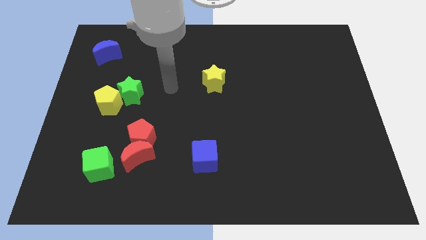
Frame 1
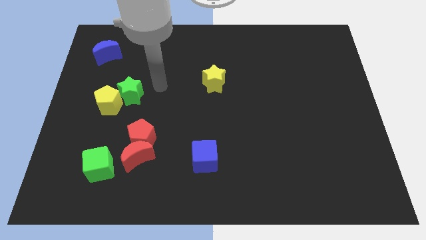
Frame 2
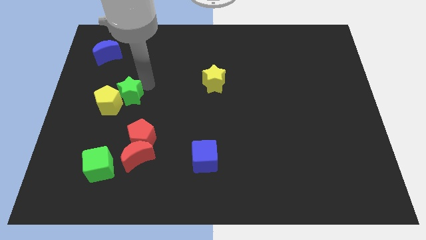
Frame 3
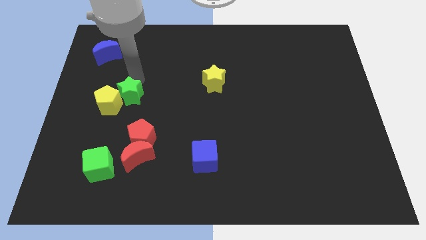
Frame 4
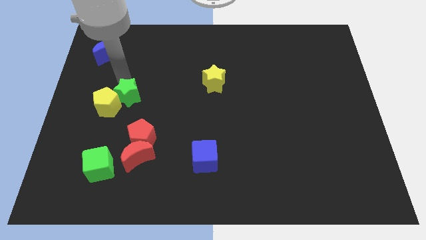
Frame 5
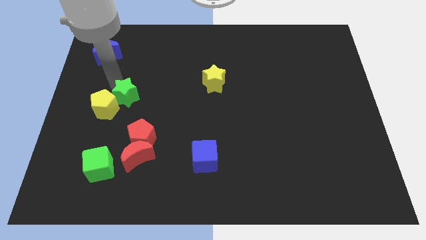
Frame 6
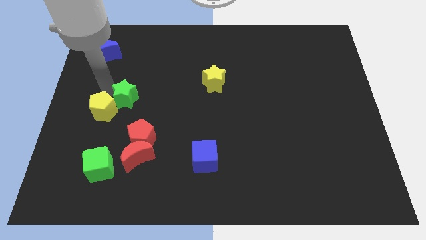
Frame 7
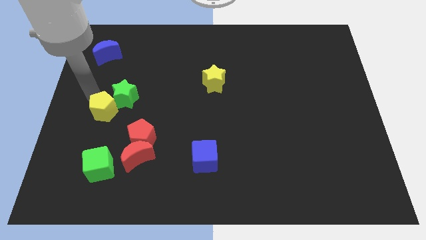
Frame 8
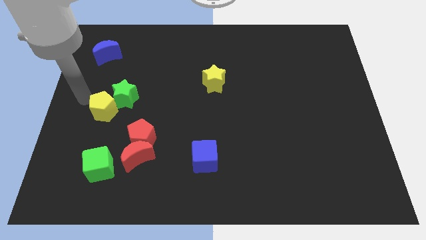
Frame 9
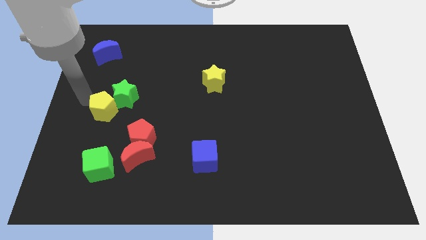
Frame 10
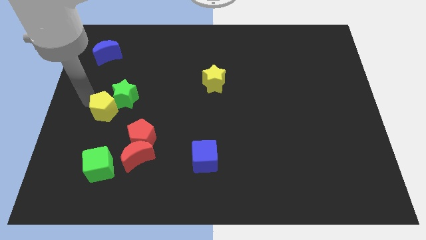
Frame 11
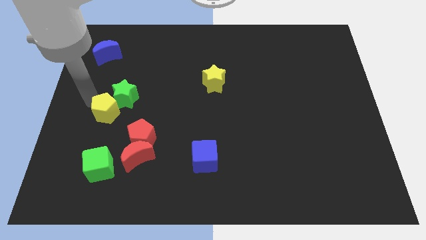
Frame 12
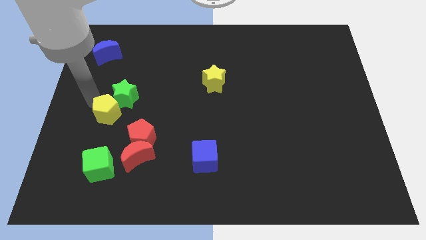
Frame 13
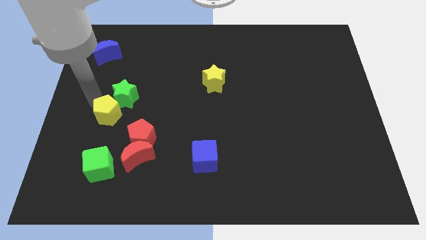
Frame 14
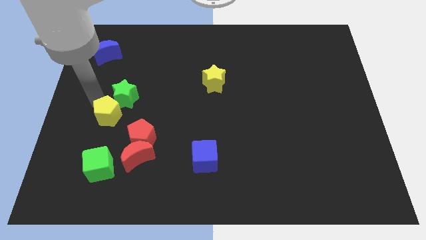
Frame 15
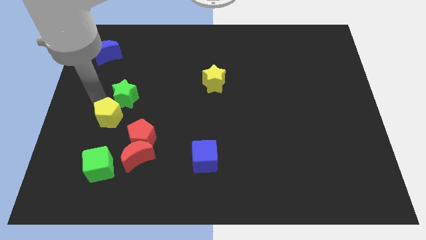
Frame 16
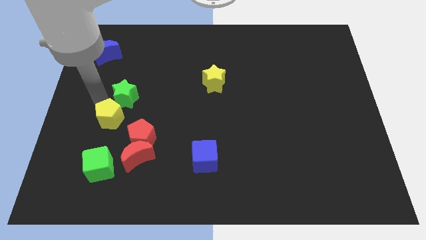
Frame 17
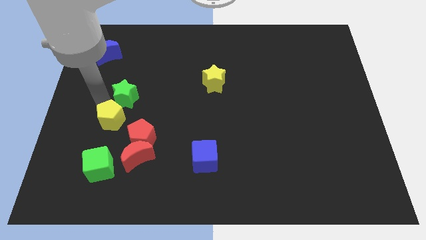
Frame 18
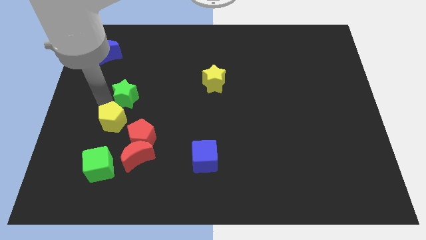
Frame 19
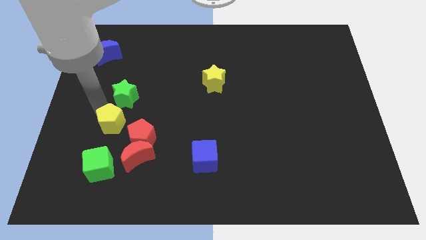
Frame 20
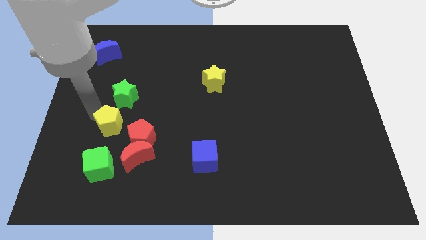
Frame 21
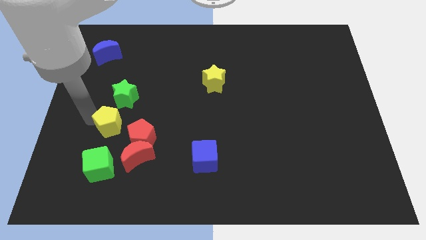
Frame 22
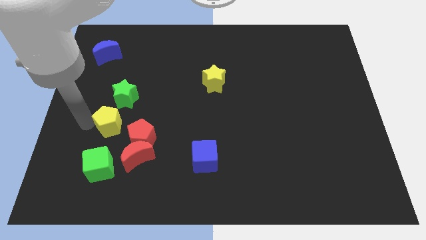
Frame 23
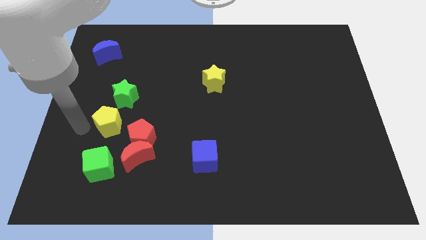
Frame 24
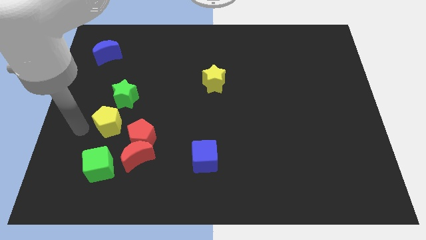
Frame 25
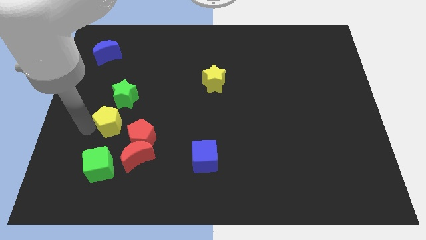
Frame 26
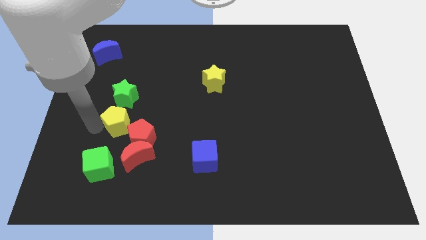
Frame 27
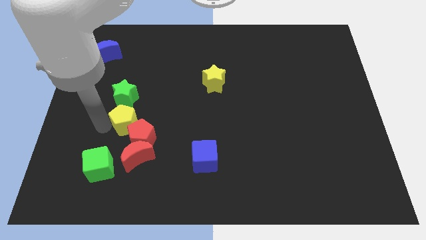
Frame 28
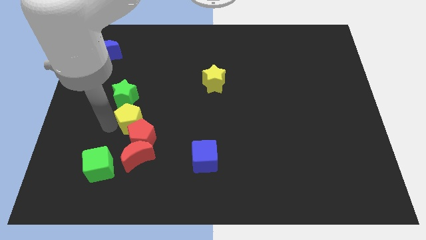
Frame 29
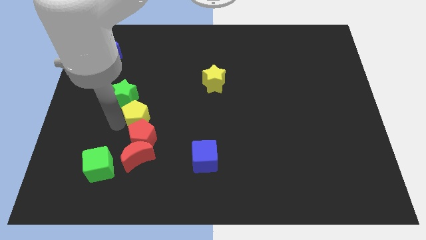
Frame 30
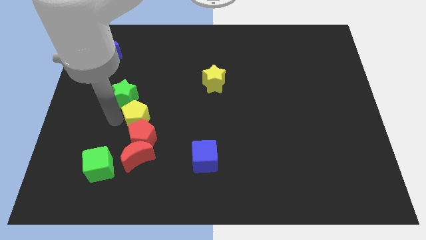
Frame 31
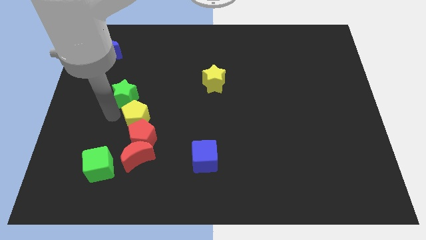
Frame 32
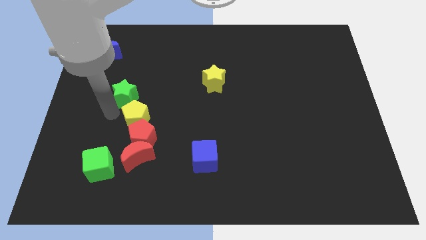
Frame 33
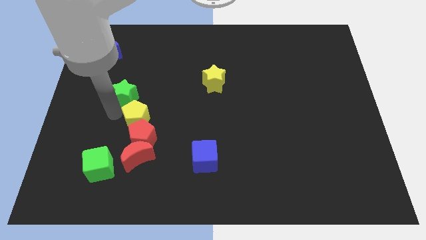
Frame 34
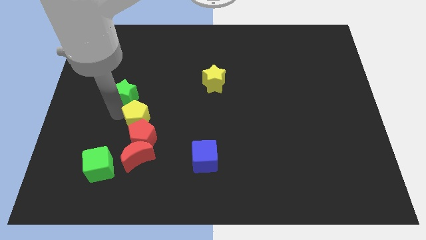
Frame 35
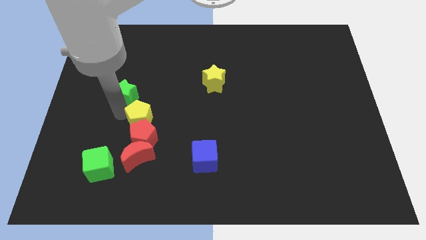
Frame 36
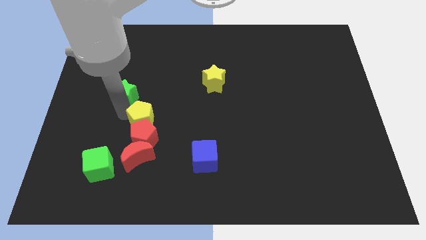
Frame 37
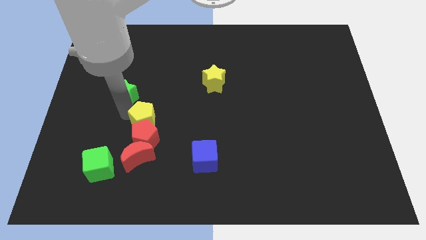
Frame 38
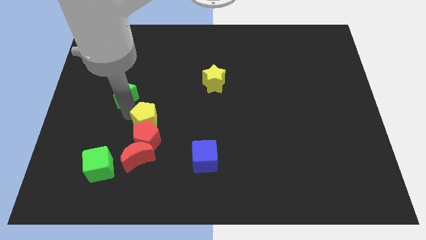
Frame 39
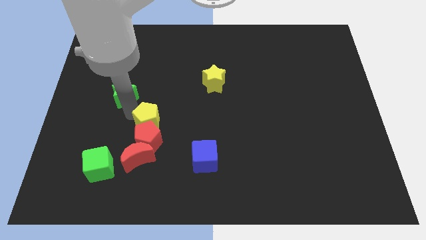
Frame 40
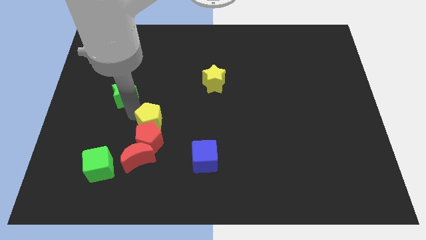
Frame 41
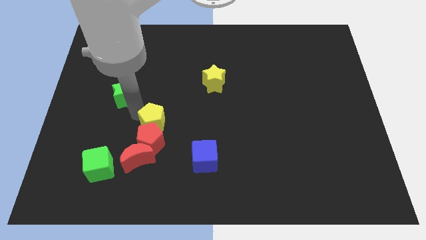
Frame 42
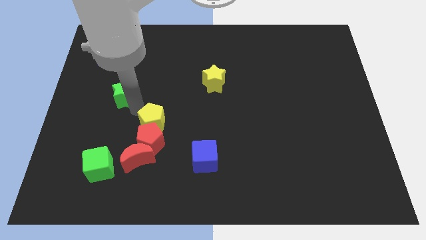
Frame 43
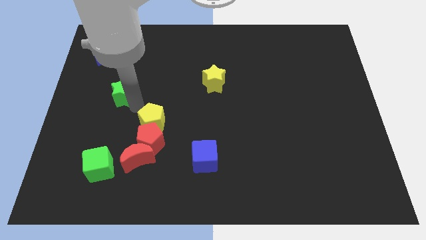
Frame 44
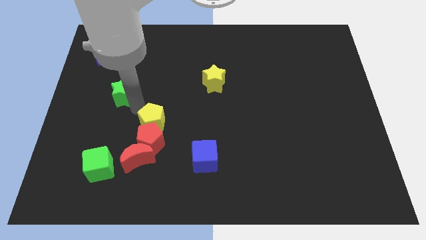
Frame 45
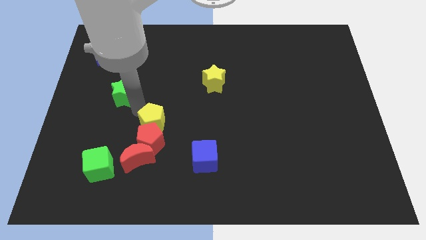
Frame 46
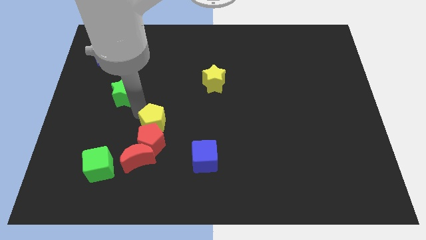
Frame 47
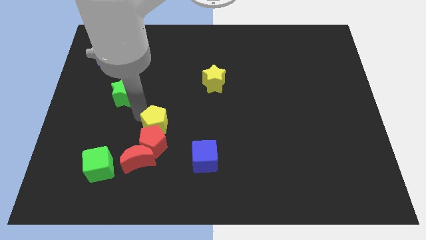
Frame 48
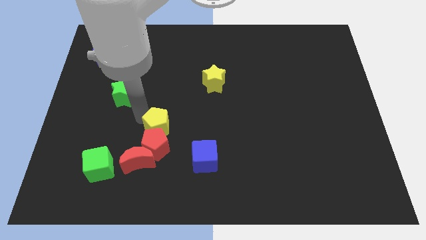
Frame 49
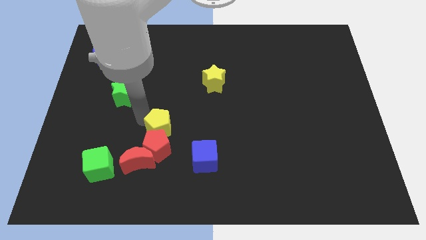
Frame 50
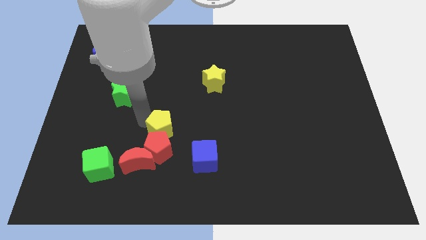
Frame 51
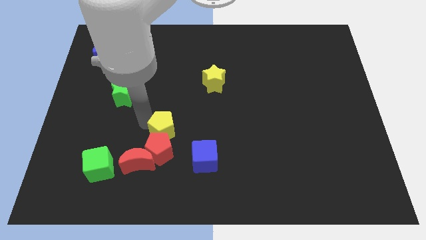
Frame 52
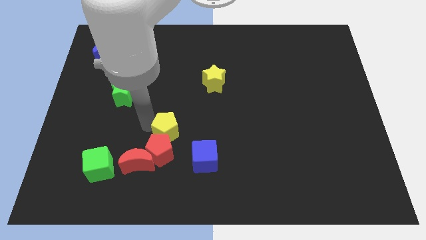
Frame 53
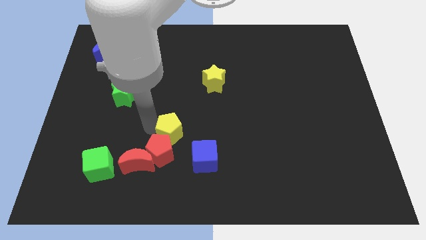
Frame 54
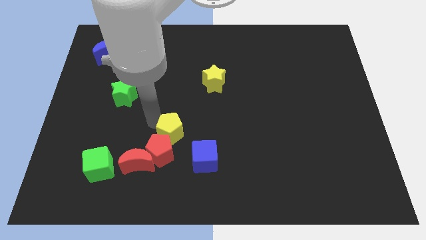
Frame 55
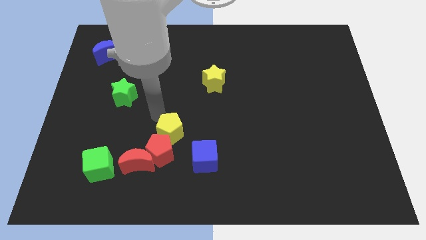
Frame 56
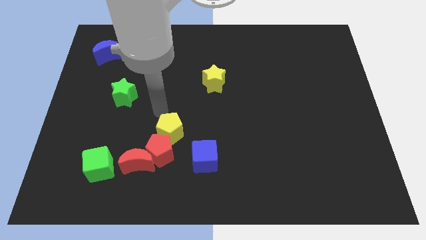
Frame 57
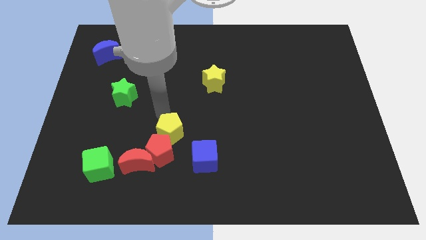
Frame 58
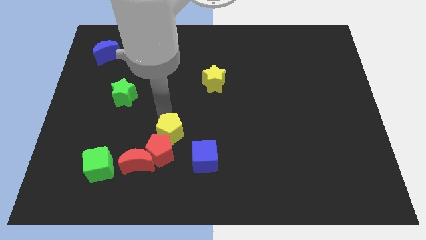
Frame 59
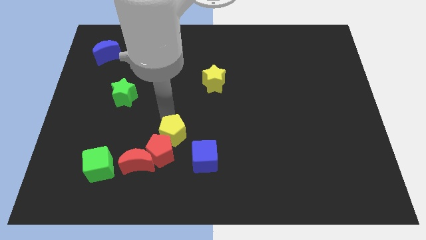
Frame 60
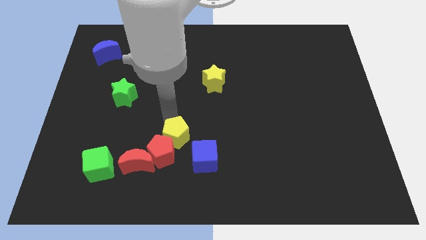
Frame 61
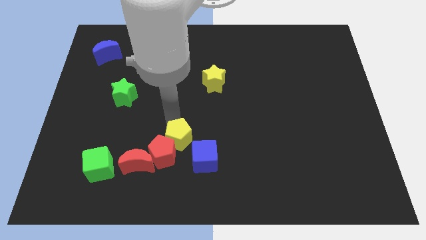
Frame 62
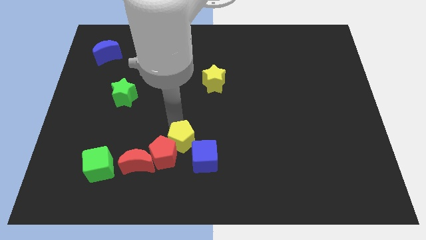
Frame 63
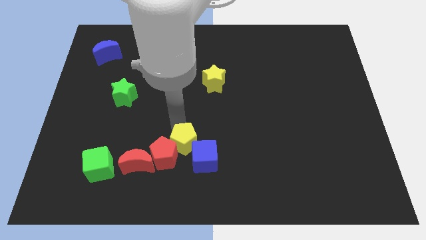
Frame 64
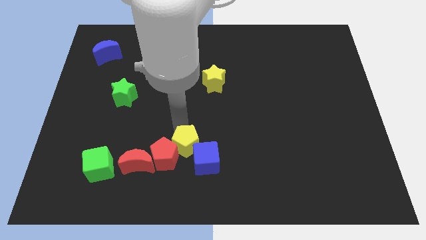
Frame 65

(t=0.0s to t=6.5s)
move the yellow pentagon to the right of the red moon

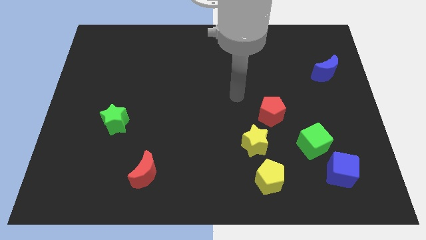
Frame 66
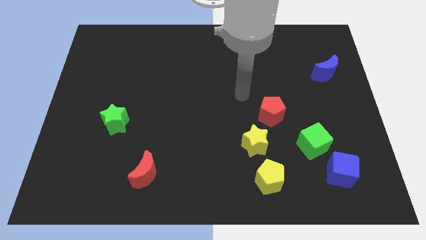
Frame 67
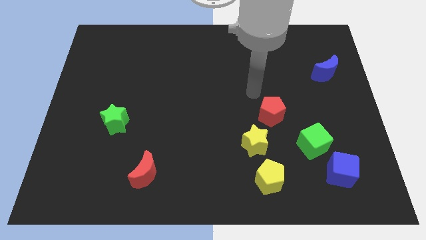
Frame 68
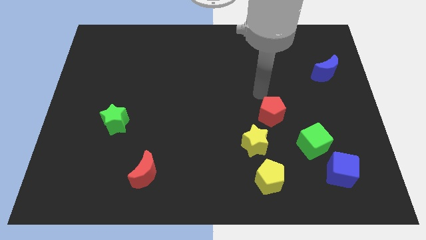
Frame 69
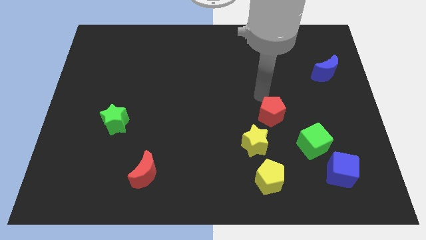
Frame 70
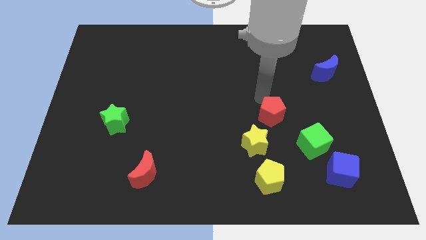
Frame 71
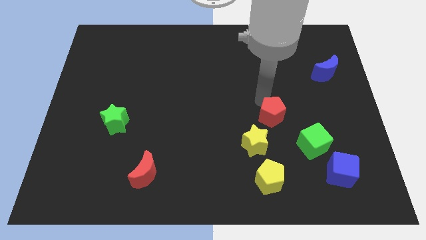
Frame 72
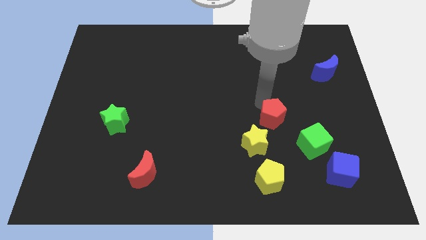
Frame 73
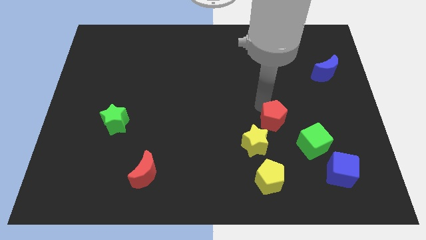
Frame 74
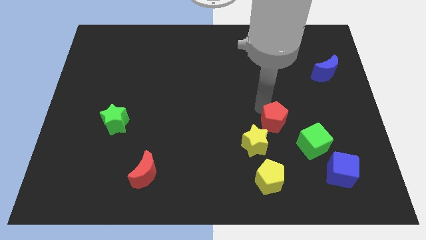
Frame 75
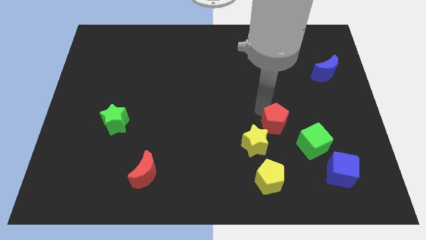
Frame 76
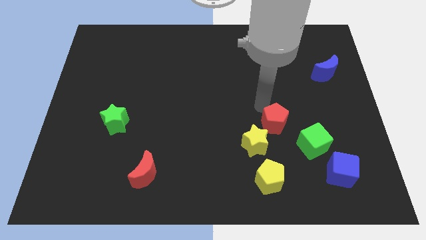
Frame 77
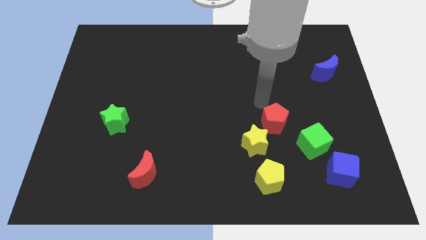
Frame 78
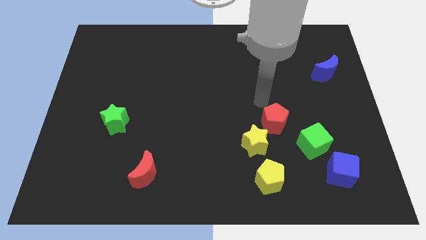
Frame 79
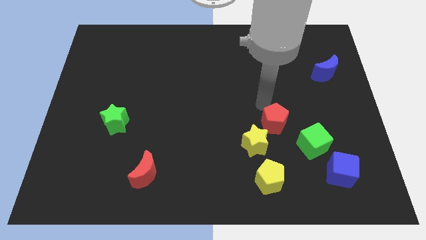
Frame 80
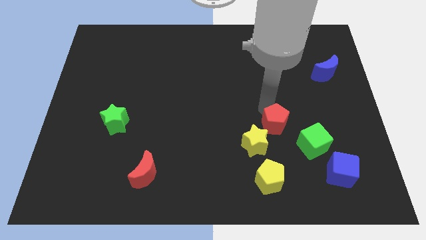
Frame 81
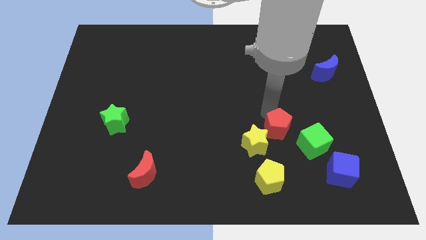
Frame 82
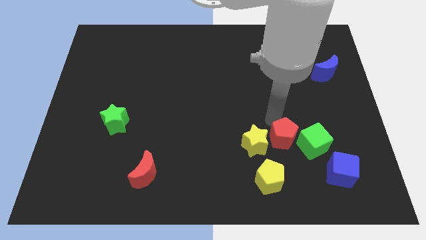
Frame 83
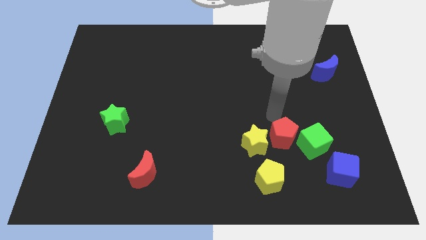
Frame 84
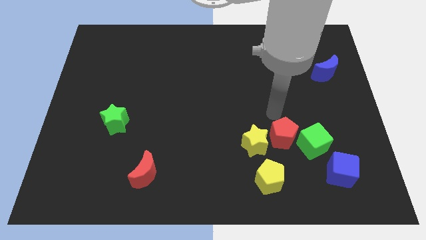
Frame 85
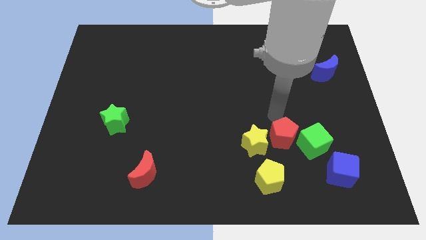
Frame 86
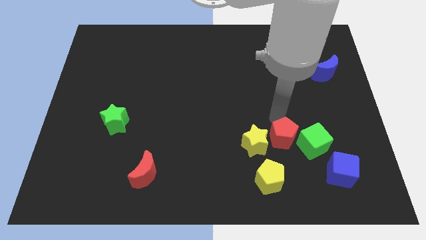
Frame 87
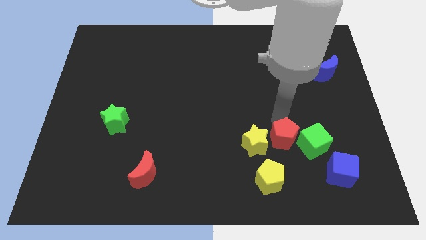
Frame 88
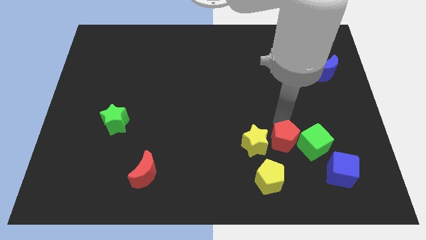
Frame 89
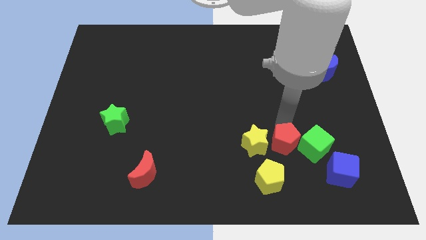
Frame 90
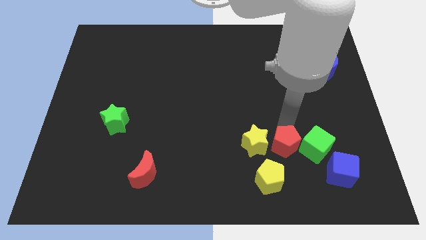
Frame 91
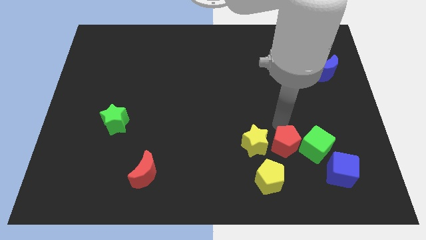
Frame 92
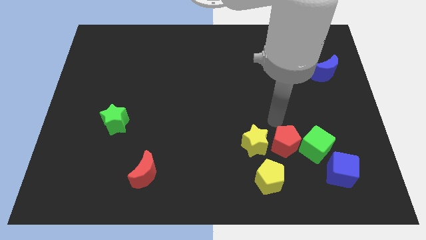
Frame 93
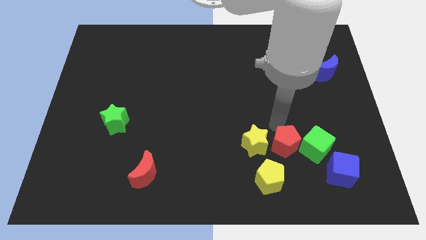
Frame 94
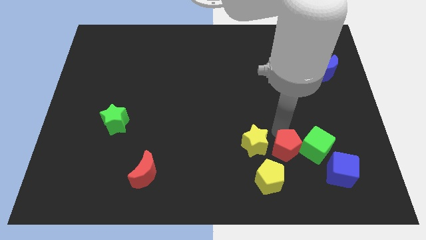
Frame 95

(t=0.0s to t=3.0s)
move the red pentagon diagonally down and to the left of the green cube
